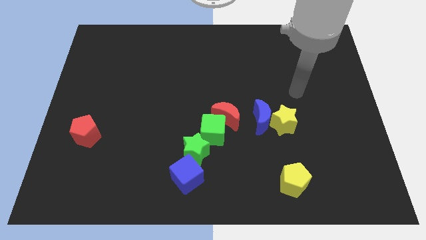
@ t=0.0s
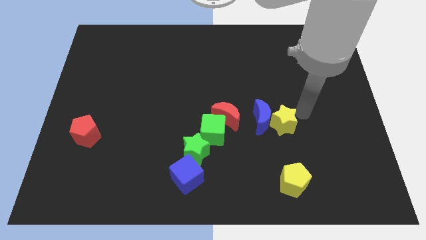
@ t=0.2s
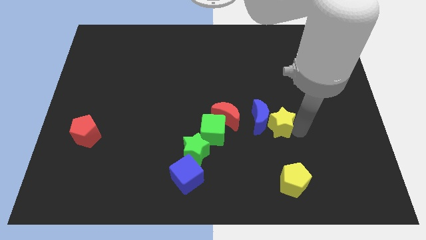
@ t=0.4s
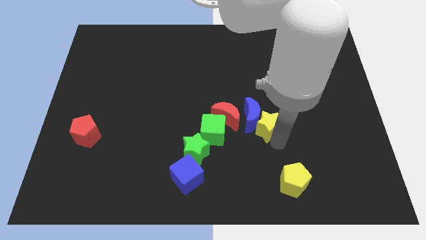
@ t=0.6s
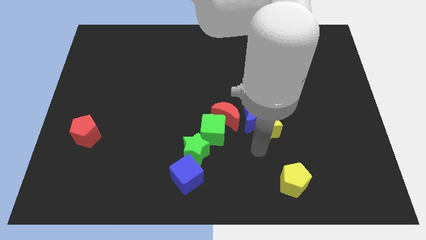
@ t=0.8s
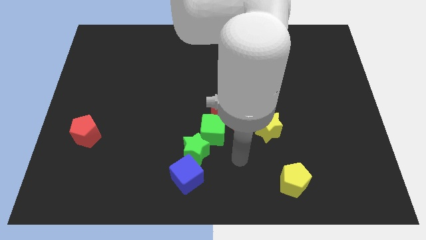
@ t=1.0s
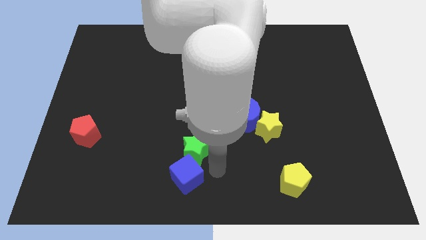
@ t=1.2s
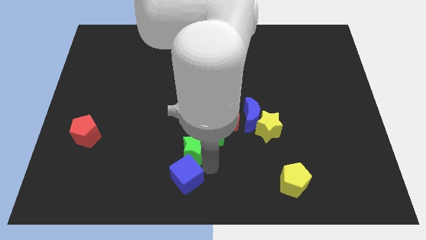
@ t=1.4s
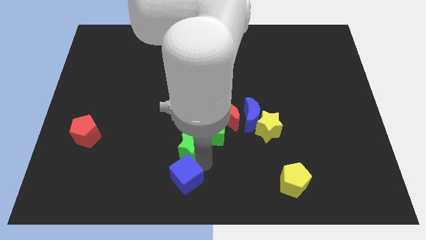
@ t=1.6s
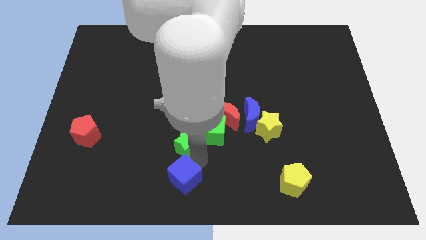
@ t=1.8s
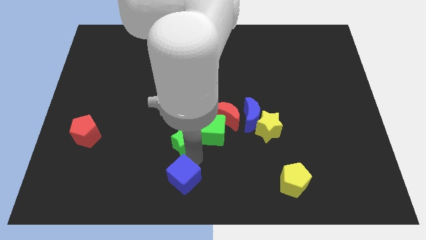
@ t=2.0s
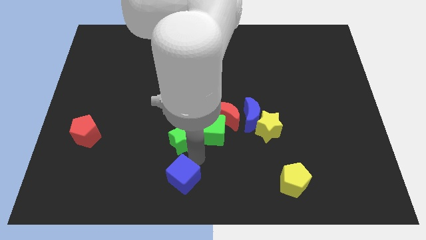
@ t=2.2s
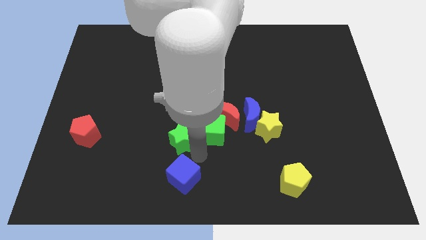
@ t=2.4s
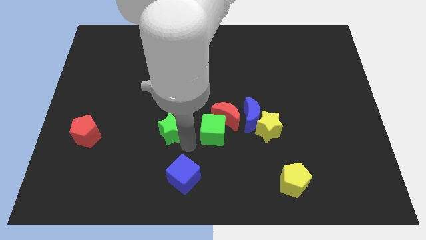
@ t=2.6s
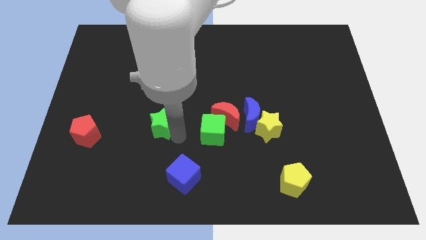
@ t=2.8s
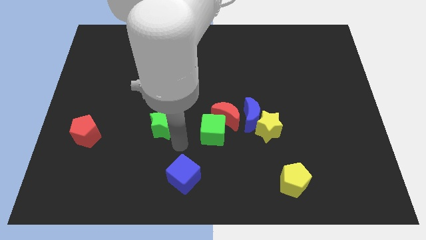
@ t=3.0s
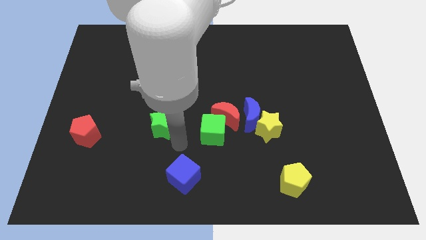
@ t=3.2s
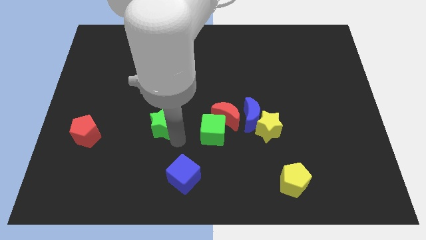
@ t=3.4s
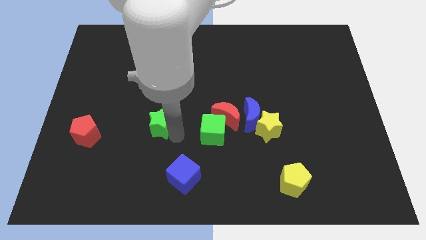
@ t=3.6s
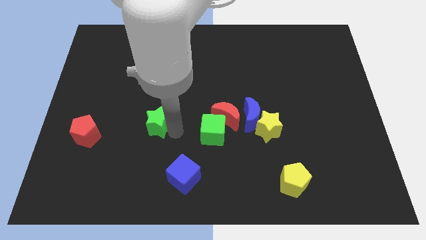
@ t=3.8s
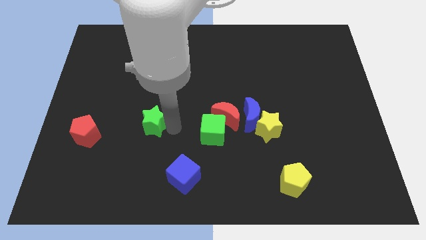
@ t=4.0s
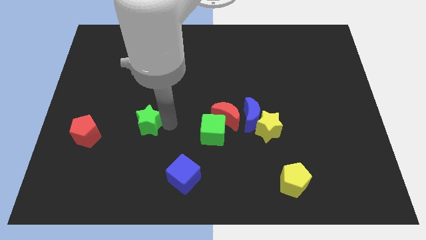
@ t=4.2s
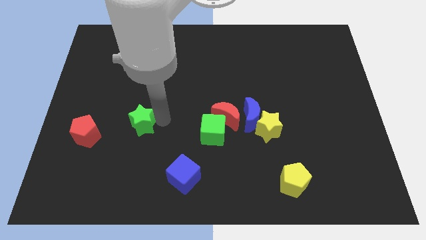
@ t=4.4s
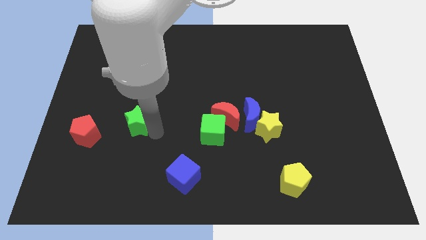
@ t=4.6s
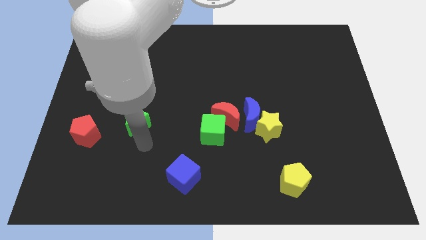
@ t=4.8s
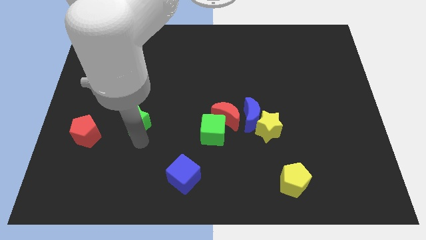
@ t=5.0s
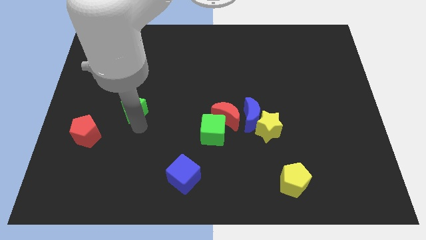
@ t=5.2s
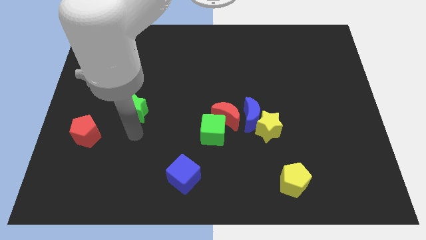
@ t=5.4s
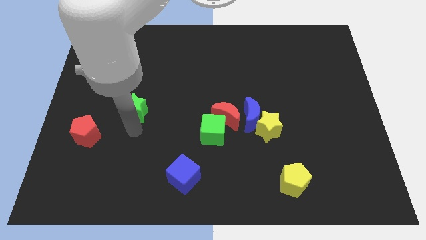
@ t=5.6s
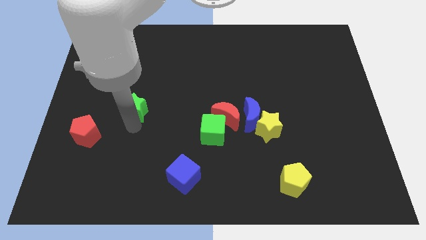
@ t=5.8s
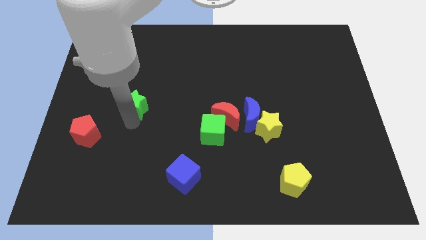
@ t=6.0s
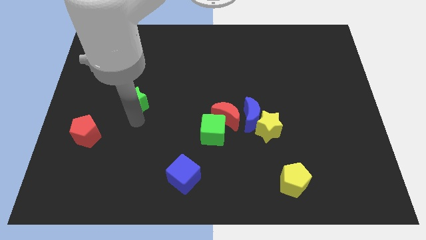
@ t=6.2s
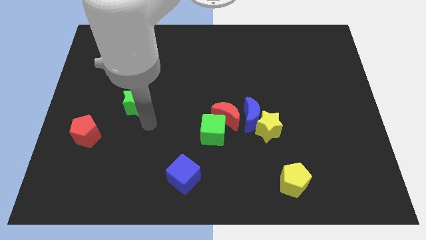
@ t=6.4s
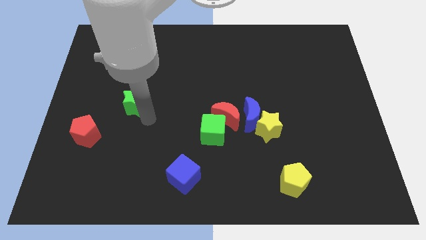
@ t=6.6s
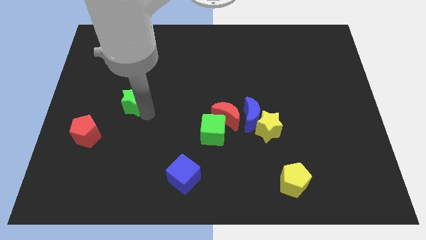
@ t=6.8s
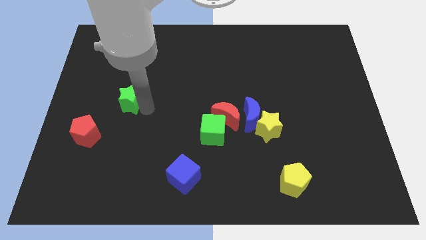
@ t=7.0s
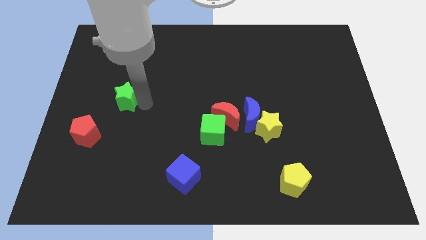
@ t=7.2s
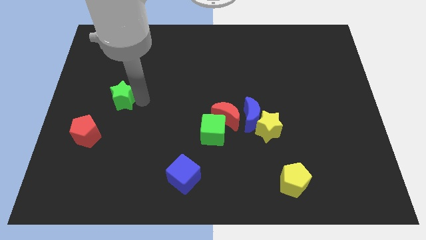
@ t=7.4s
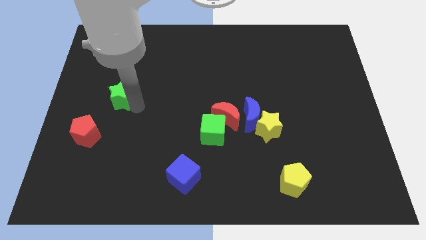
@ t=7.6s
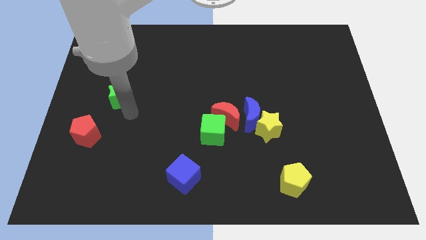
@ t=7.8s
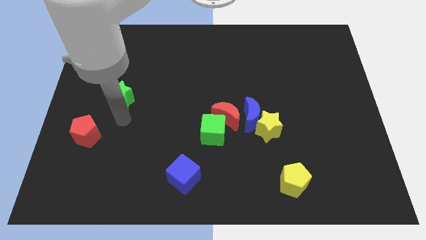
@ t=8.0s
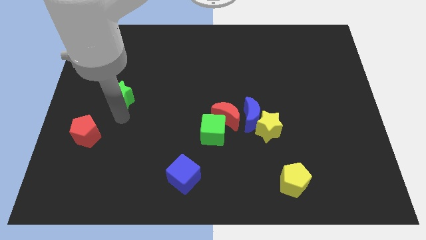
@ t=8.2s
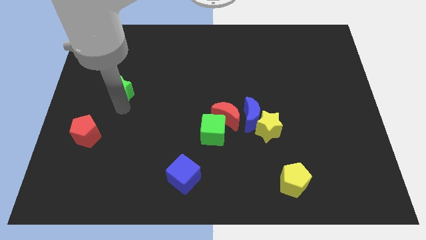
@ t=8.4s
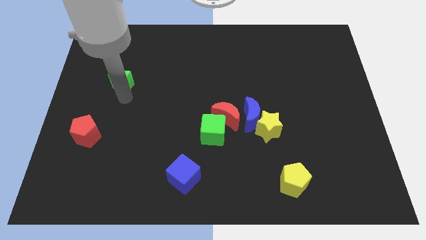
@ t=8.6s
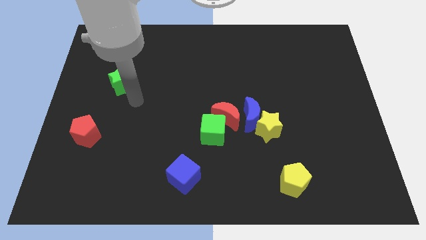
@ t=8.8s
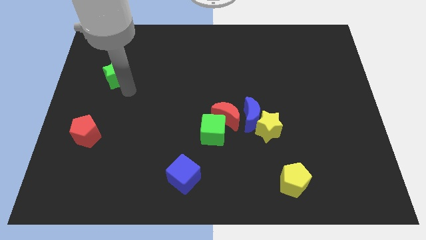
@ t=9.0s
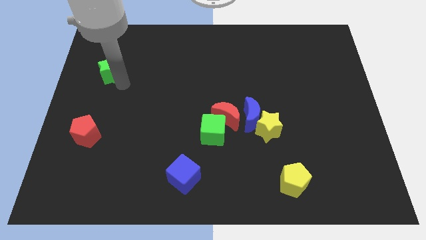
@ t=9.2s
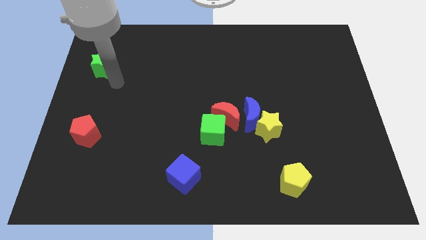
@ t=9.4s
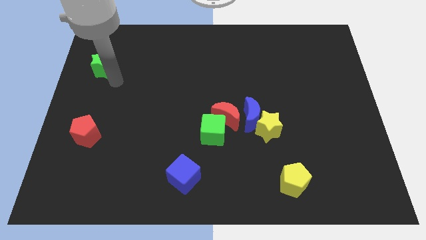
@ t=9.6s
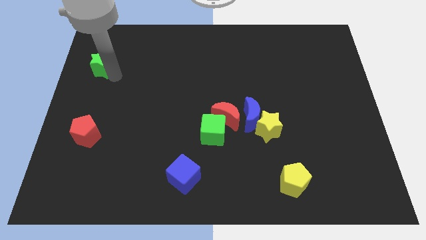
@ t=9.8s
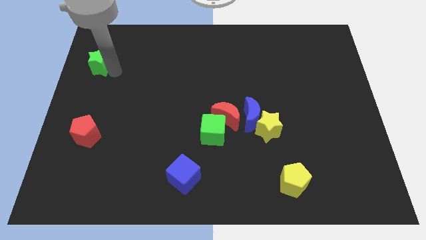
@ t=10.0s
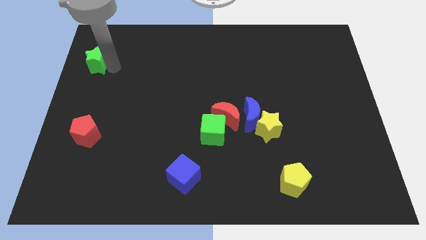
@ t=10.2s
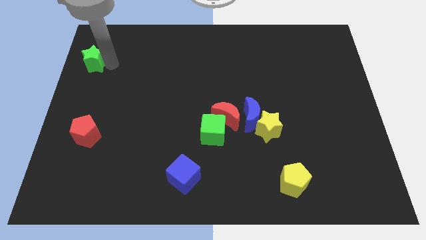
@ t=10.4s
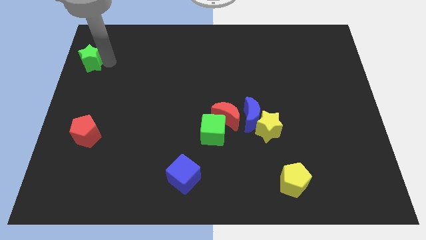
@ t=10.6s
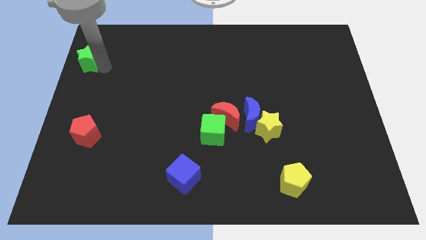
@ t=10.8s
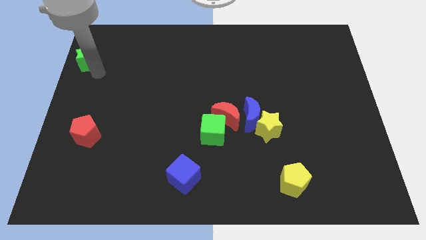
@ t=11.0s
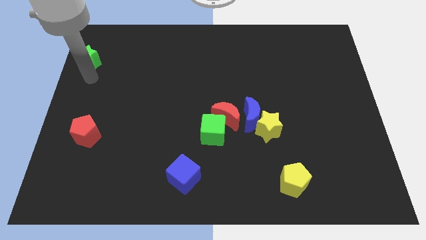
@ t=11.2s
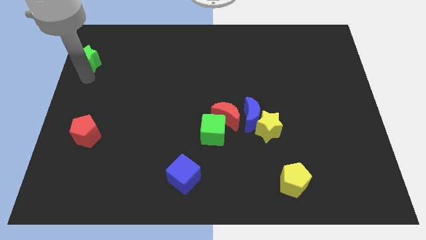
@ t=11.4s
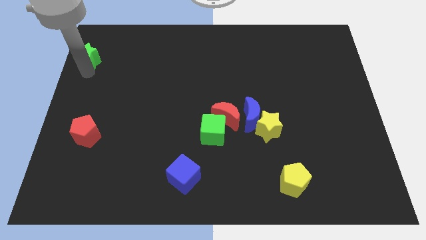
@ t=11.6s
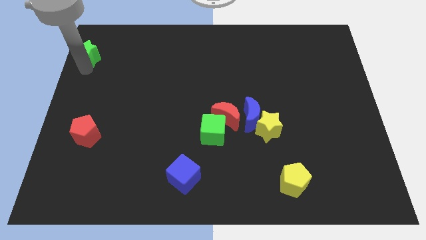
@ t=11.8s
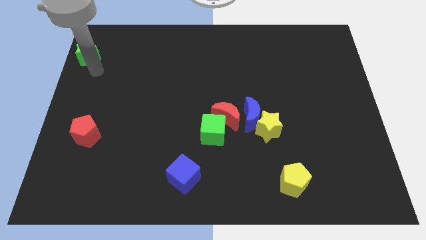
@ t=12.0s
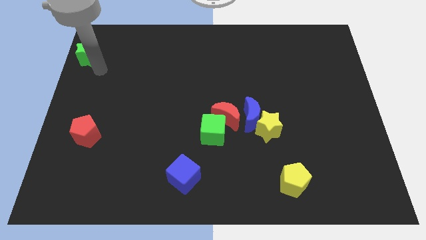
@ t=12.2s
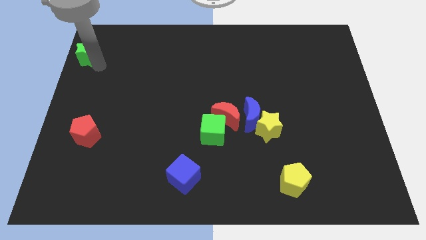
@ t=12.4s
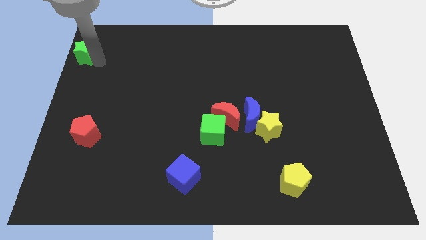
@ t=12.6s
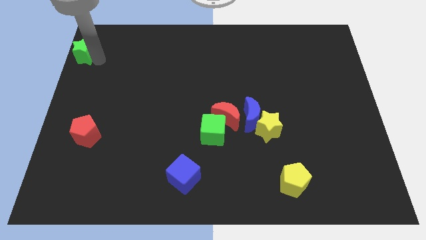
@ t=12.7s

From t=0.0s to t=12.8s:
put the green star to the top left of the board
